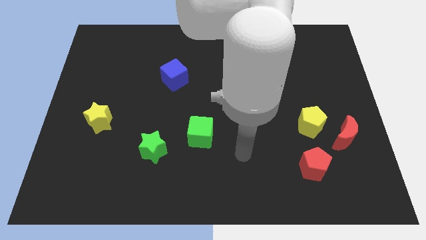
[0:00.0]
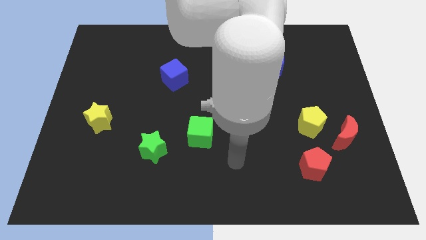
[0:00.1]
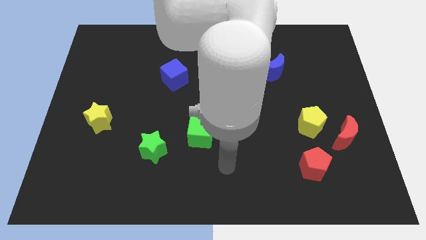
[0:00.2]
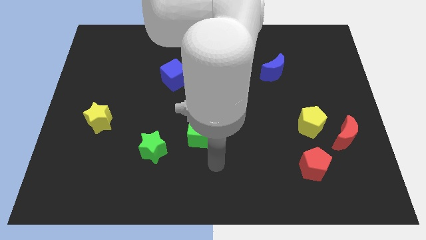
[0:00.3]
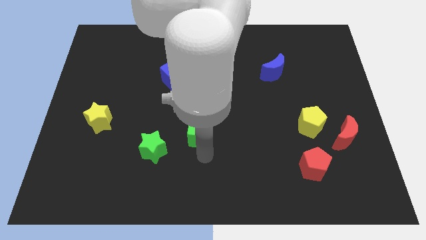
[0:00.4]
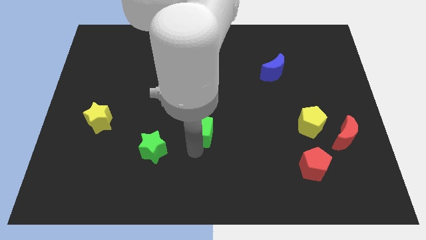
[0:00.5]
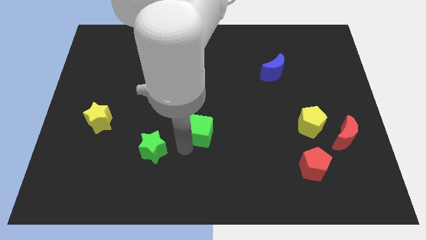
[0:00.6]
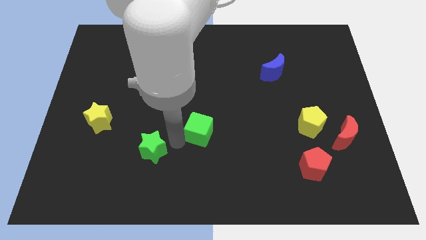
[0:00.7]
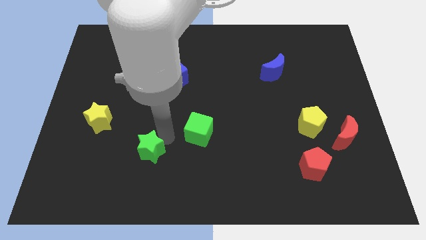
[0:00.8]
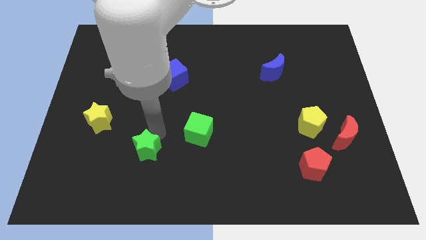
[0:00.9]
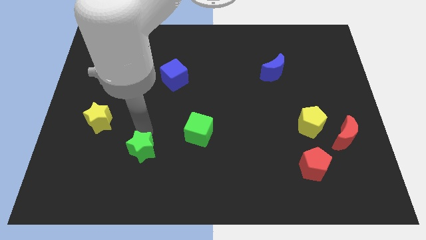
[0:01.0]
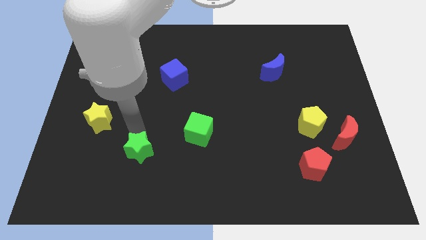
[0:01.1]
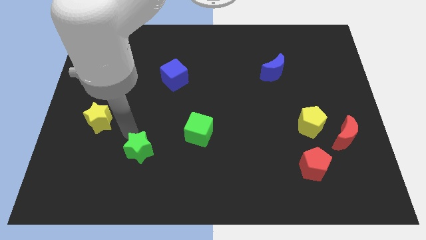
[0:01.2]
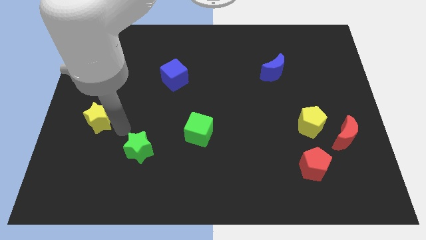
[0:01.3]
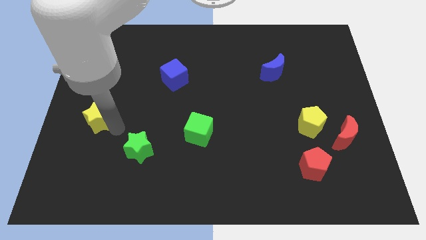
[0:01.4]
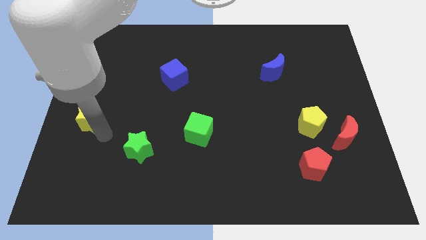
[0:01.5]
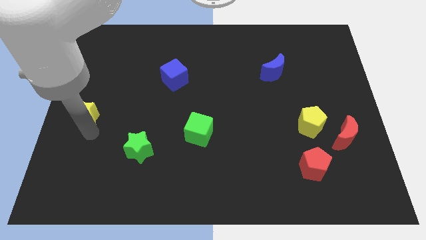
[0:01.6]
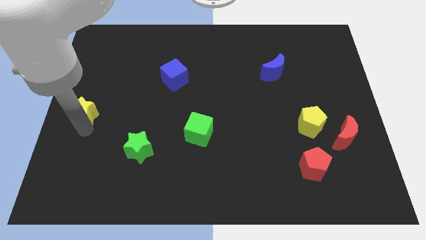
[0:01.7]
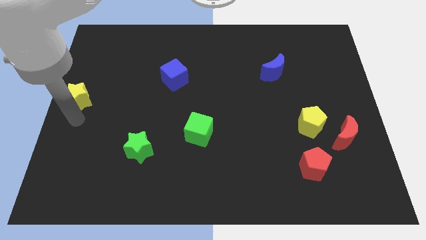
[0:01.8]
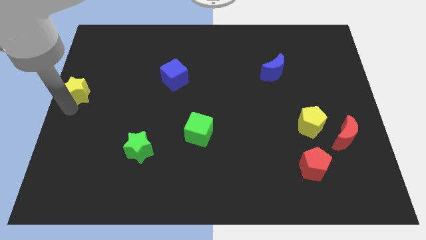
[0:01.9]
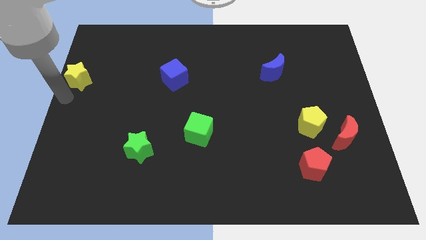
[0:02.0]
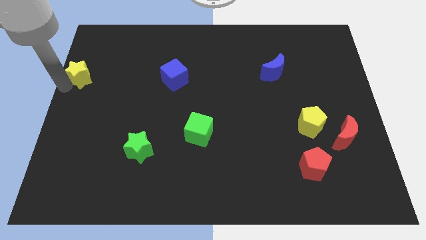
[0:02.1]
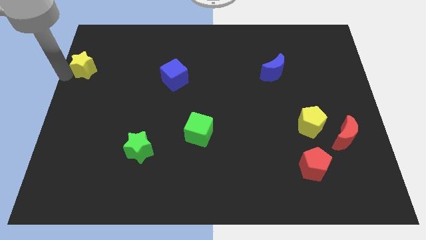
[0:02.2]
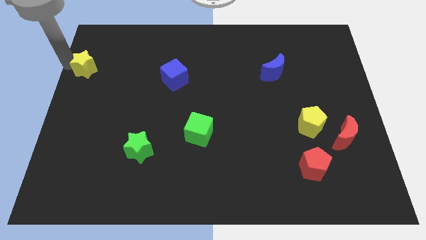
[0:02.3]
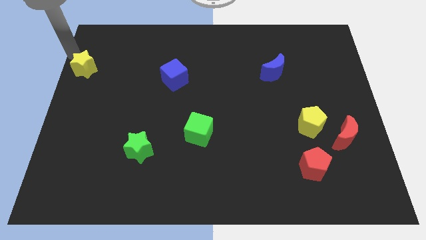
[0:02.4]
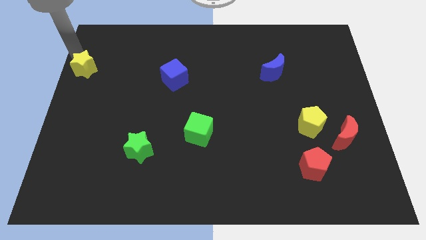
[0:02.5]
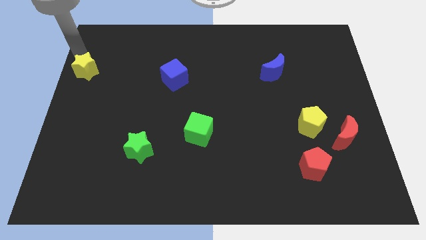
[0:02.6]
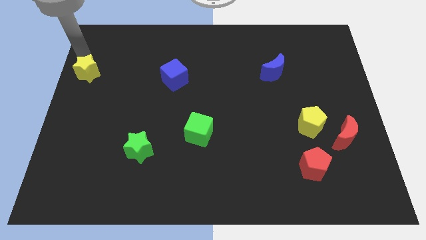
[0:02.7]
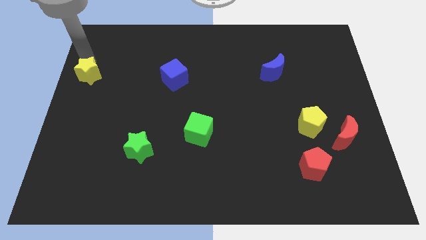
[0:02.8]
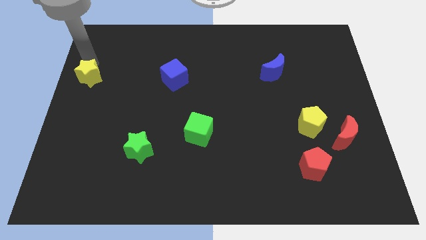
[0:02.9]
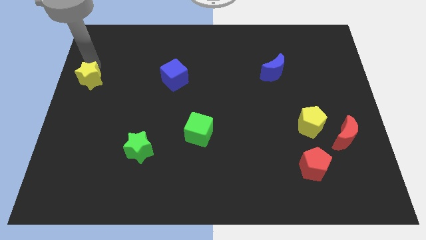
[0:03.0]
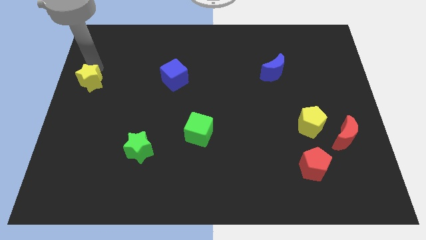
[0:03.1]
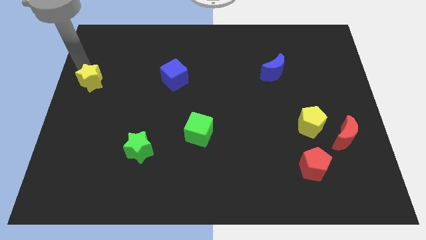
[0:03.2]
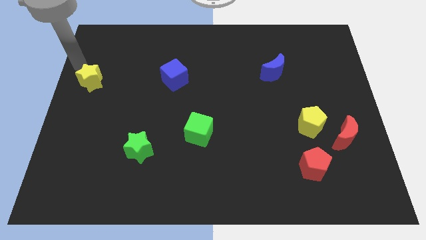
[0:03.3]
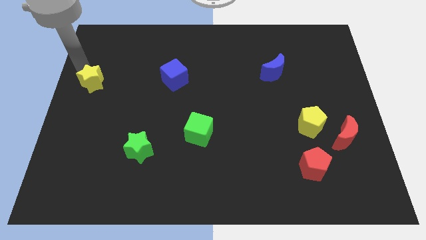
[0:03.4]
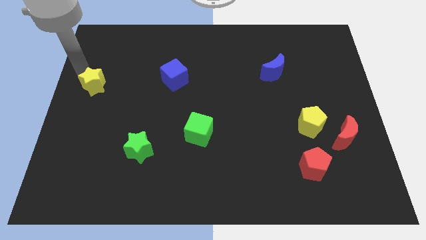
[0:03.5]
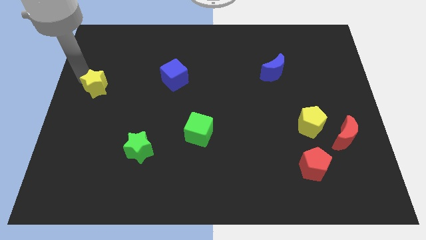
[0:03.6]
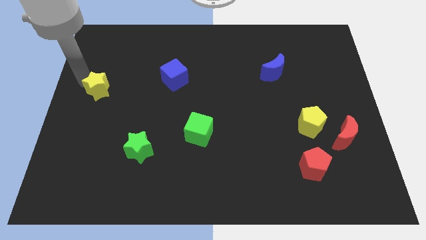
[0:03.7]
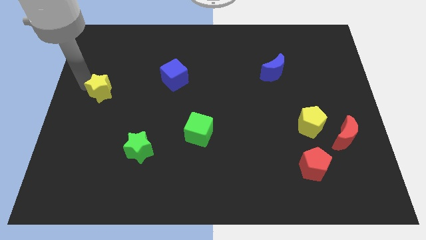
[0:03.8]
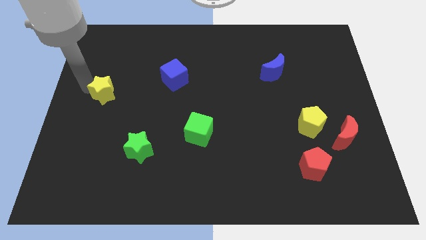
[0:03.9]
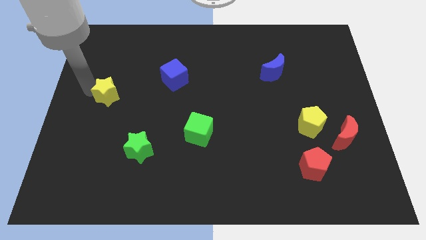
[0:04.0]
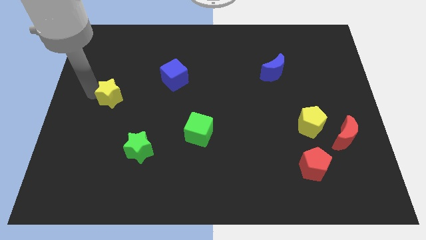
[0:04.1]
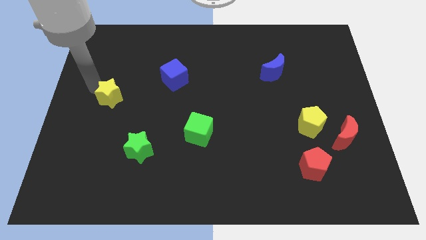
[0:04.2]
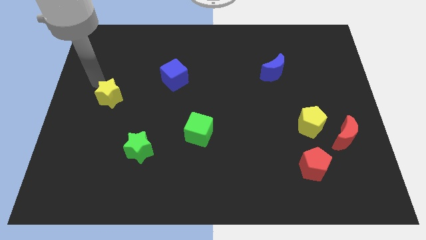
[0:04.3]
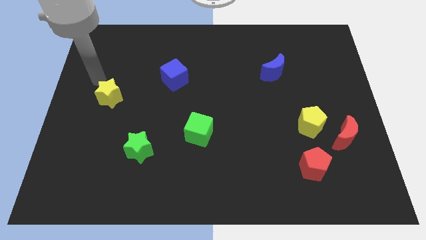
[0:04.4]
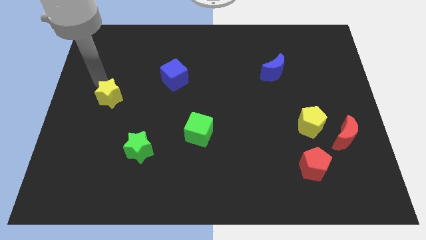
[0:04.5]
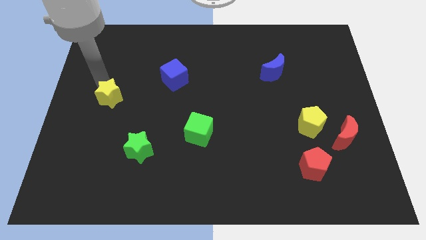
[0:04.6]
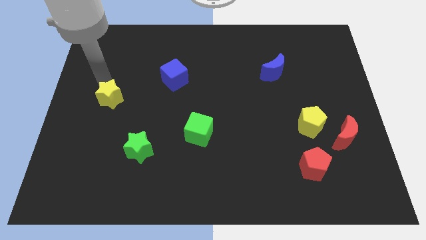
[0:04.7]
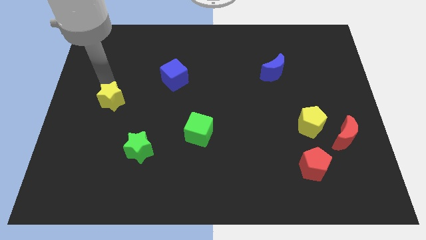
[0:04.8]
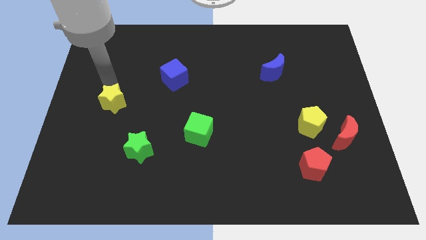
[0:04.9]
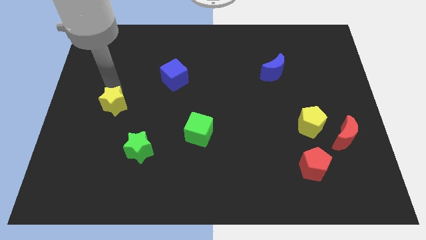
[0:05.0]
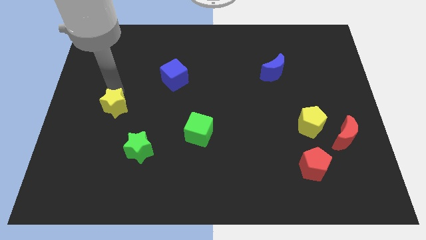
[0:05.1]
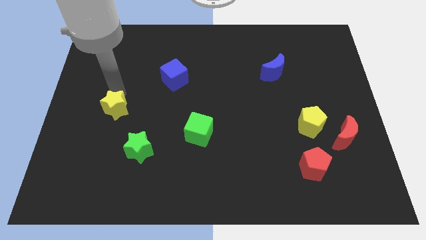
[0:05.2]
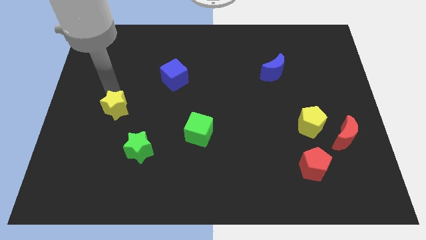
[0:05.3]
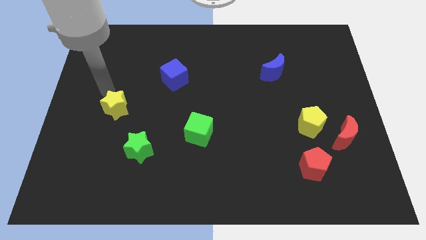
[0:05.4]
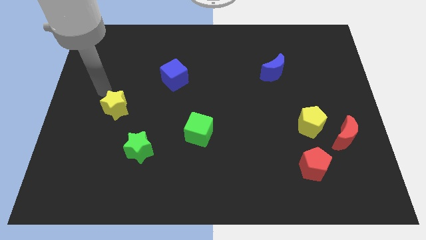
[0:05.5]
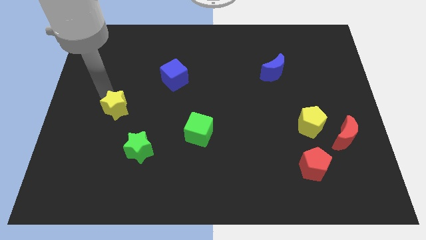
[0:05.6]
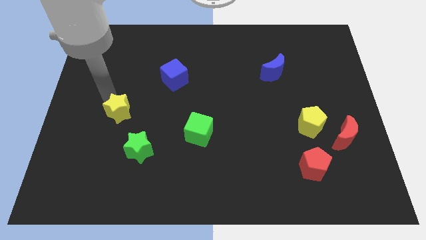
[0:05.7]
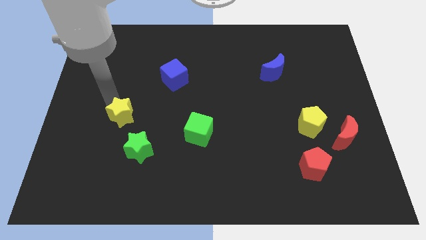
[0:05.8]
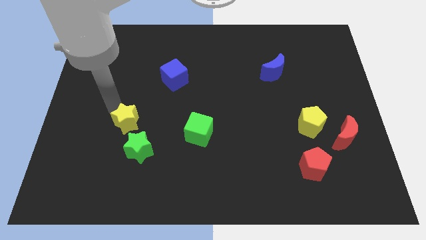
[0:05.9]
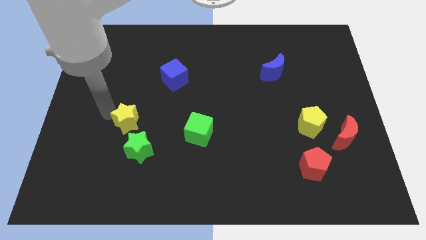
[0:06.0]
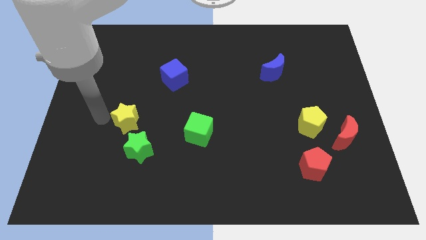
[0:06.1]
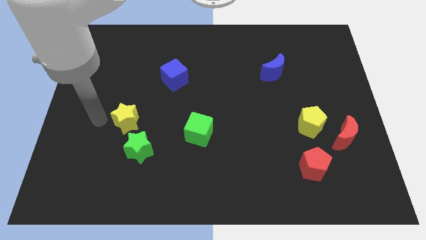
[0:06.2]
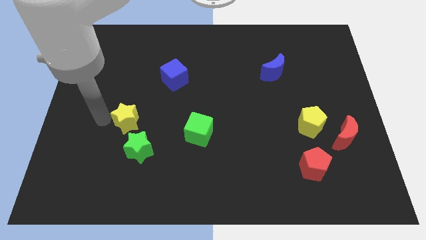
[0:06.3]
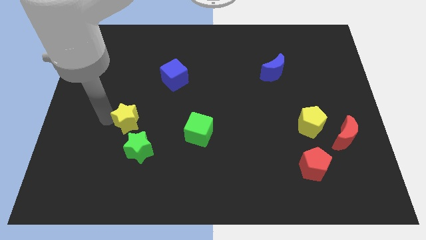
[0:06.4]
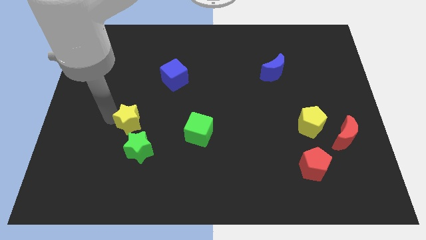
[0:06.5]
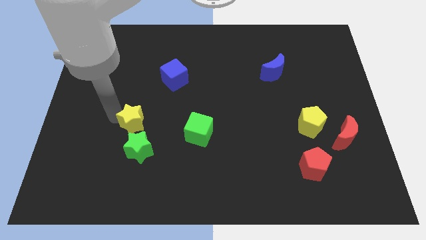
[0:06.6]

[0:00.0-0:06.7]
slightly slide the yellow star right

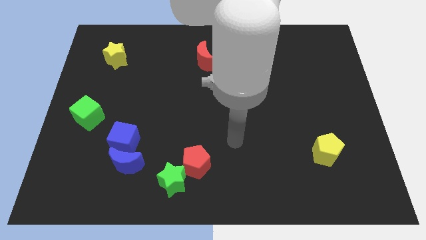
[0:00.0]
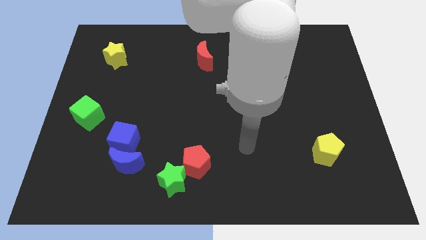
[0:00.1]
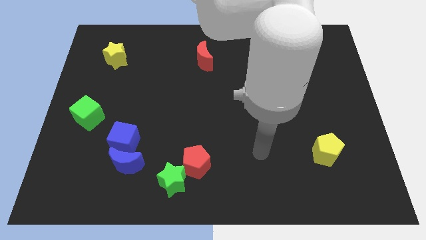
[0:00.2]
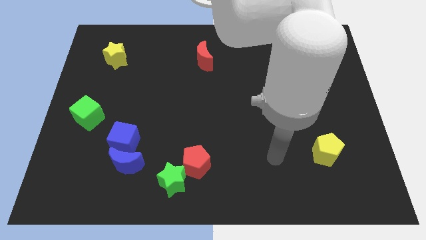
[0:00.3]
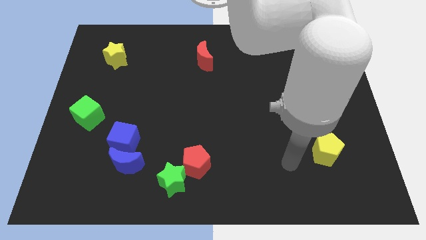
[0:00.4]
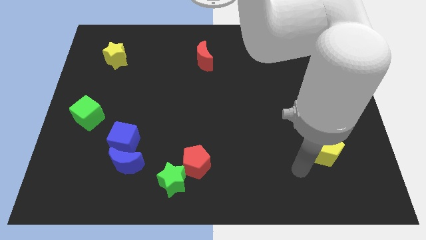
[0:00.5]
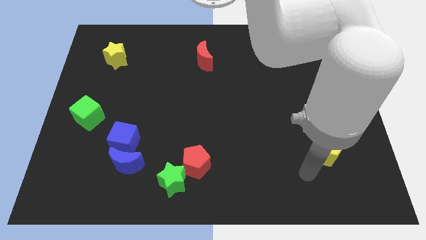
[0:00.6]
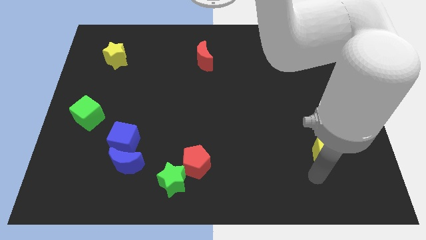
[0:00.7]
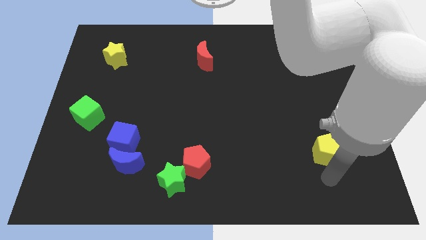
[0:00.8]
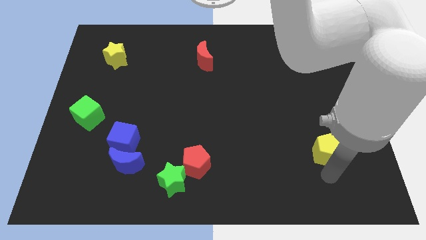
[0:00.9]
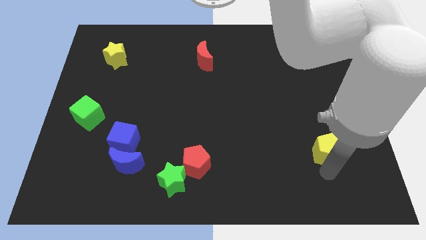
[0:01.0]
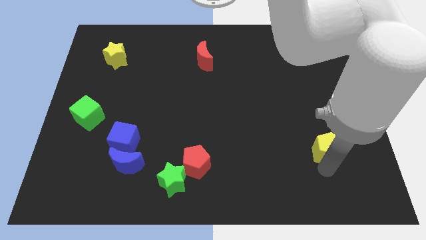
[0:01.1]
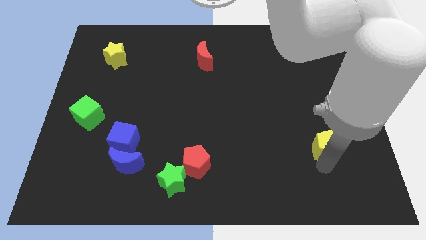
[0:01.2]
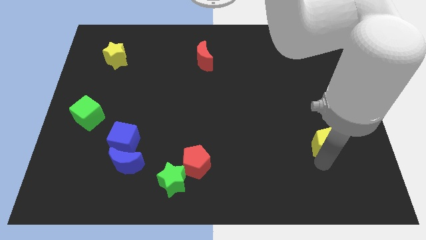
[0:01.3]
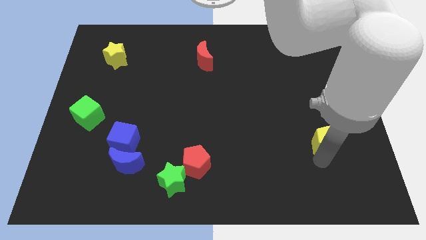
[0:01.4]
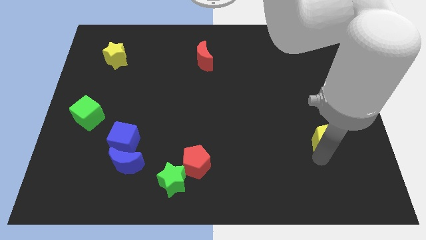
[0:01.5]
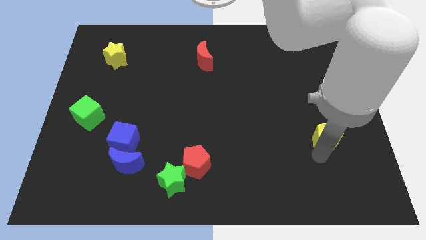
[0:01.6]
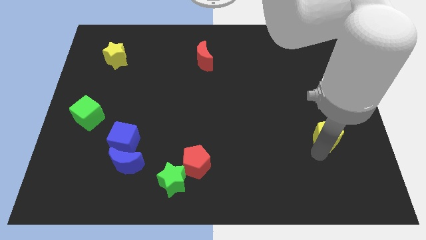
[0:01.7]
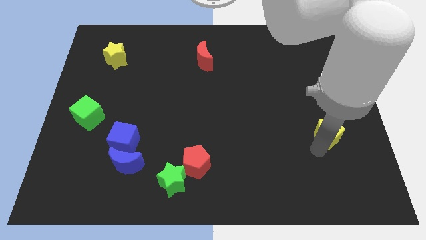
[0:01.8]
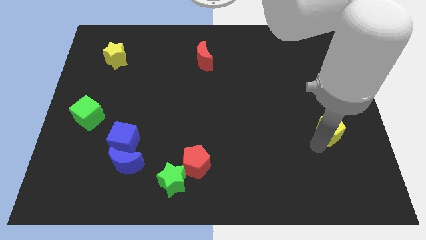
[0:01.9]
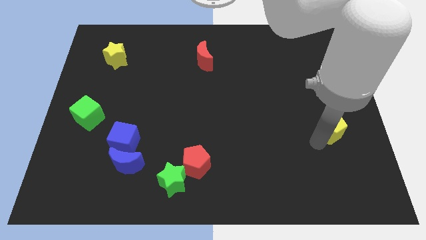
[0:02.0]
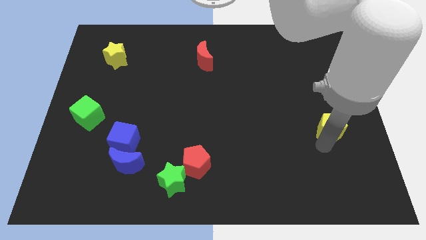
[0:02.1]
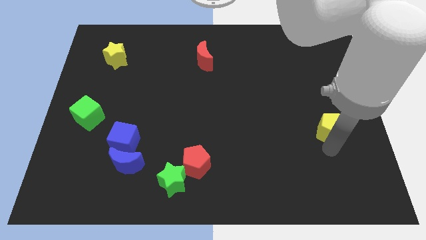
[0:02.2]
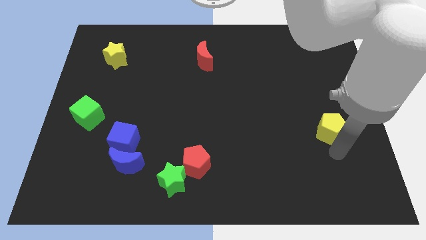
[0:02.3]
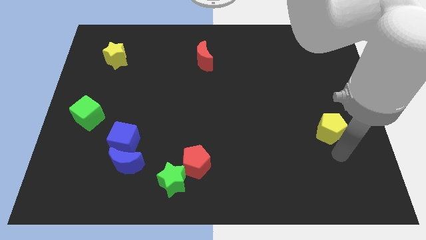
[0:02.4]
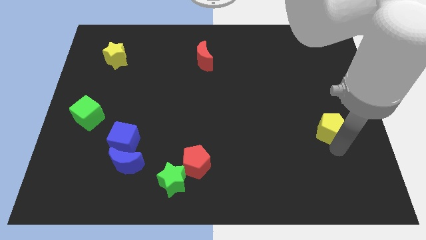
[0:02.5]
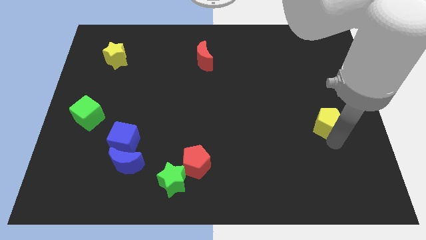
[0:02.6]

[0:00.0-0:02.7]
move the yellow pentagon up a bit
